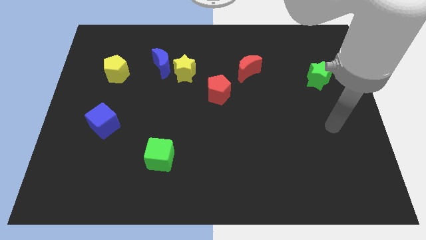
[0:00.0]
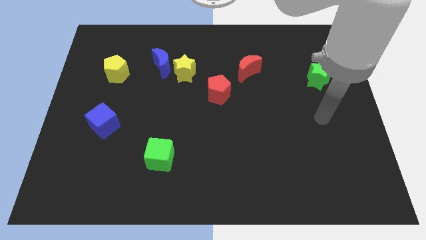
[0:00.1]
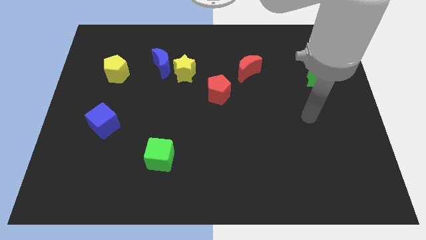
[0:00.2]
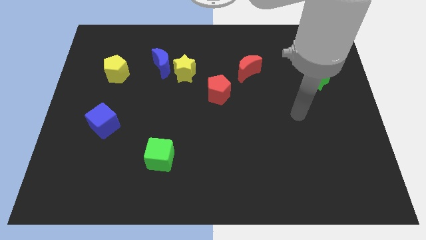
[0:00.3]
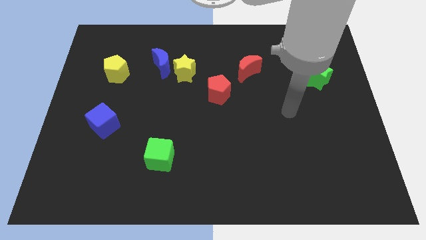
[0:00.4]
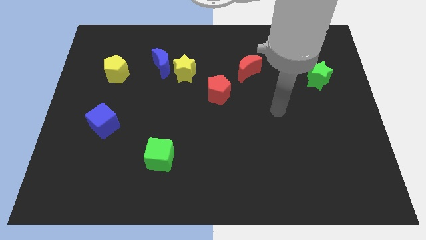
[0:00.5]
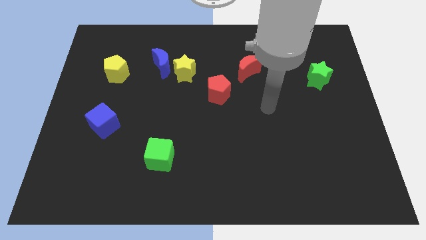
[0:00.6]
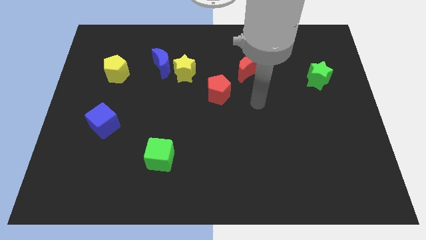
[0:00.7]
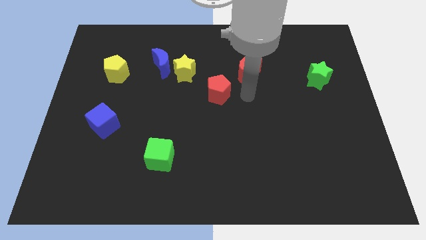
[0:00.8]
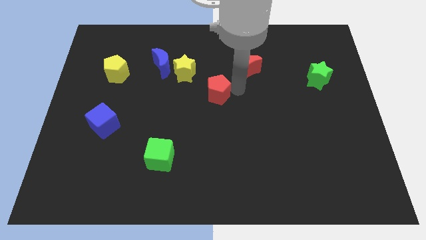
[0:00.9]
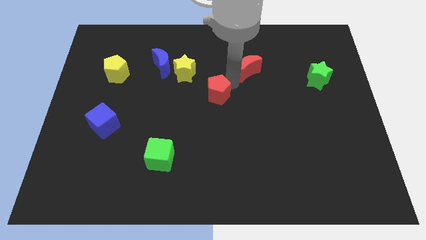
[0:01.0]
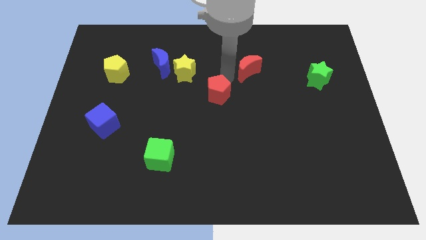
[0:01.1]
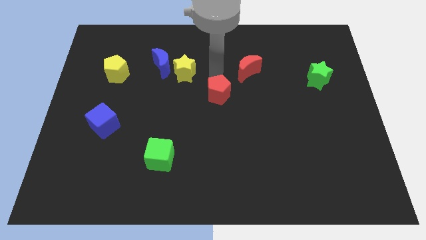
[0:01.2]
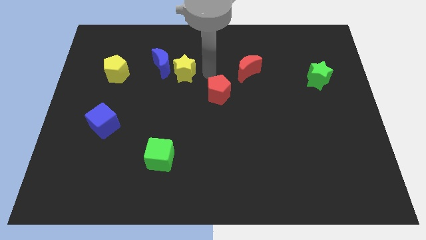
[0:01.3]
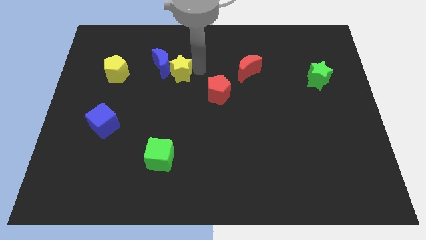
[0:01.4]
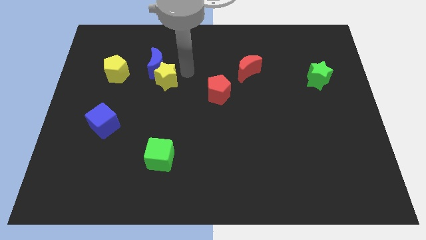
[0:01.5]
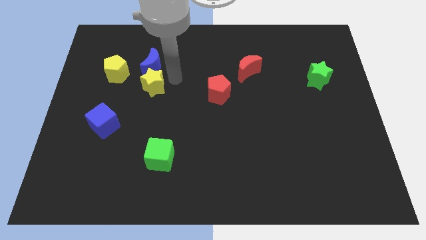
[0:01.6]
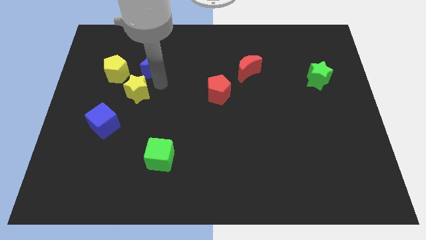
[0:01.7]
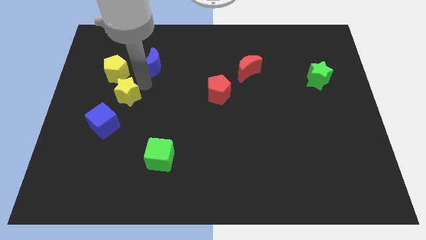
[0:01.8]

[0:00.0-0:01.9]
pull the blue moon apart from the yellow star

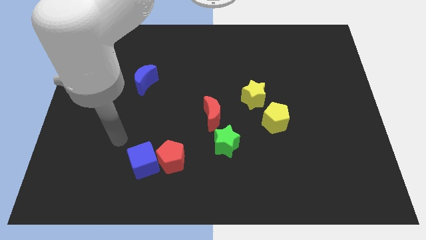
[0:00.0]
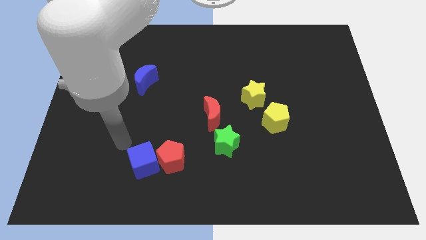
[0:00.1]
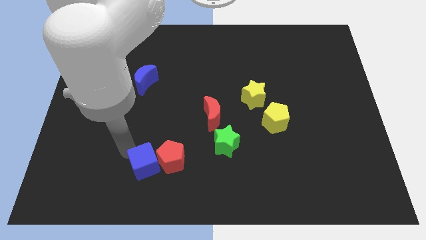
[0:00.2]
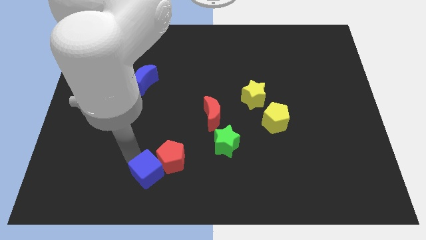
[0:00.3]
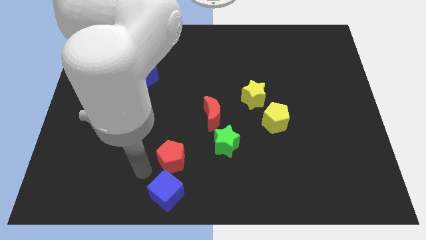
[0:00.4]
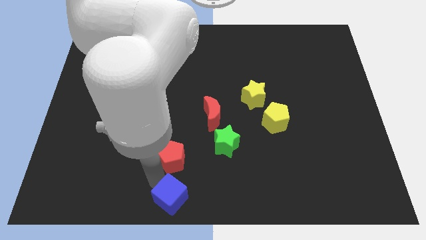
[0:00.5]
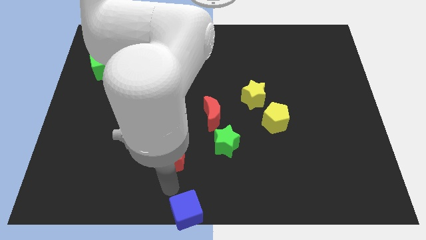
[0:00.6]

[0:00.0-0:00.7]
separate the red pentagon from the blue cube

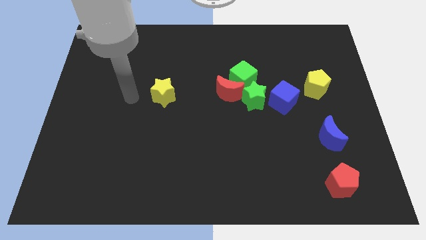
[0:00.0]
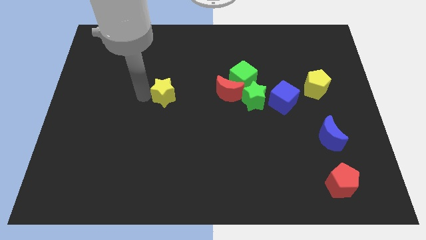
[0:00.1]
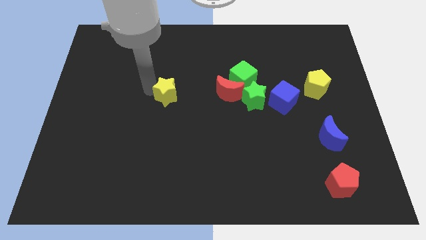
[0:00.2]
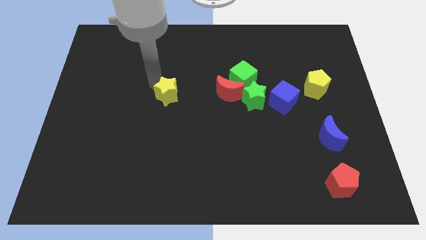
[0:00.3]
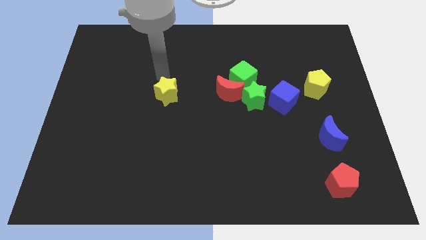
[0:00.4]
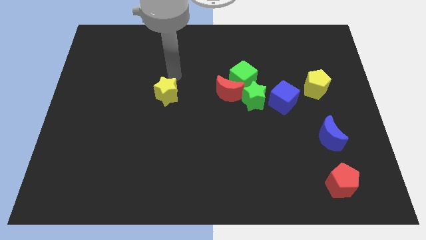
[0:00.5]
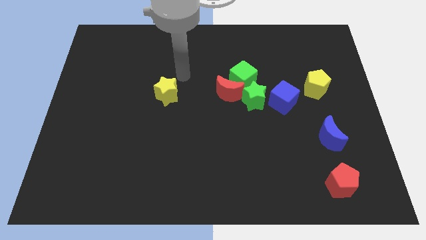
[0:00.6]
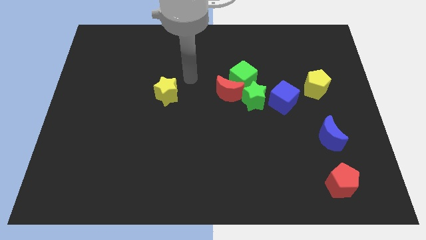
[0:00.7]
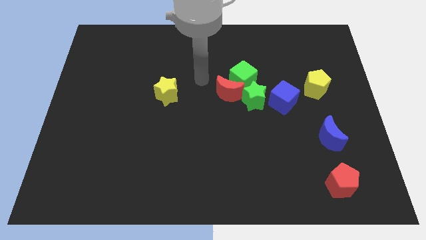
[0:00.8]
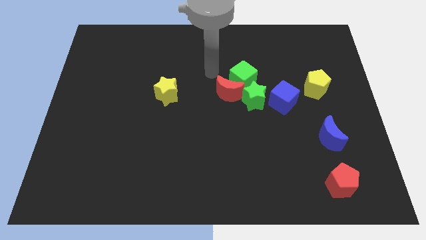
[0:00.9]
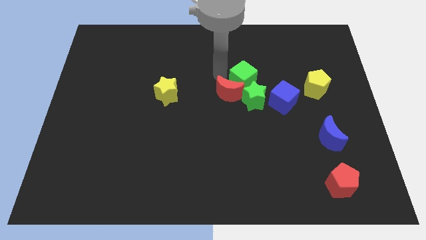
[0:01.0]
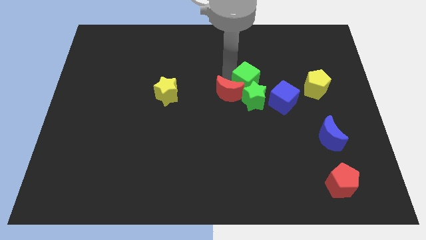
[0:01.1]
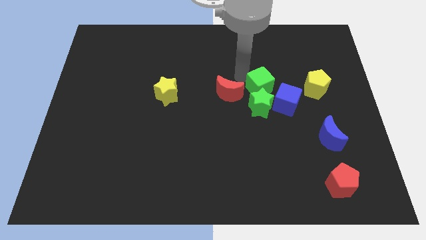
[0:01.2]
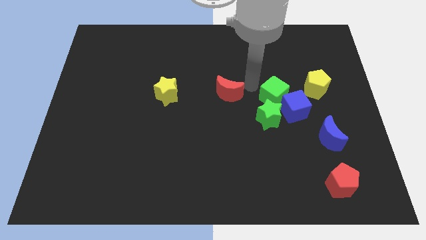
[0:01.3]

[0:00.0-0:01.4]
pull the red moon apart from the green cube and green star

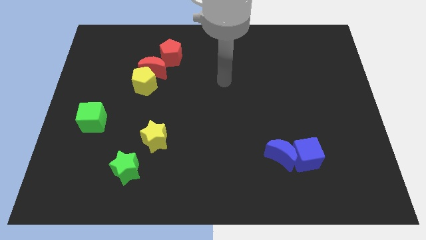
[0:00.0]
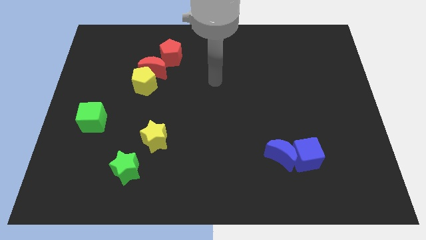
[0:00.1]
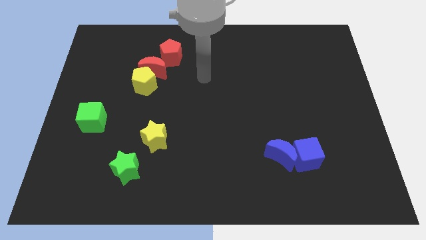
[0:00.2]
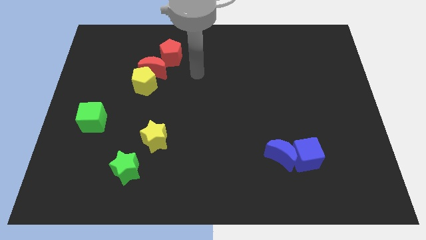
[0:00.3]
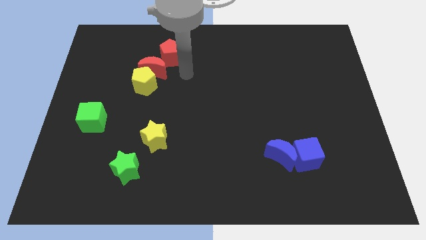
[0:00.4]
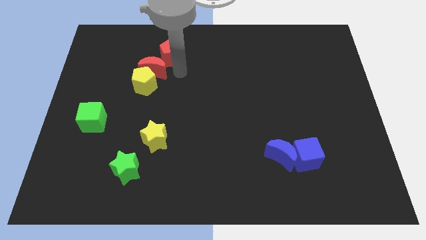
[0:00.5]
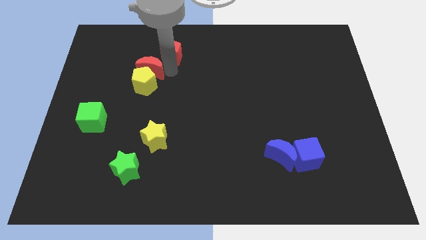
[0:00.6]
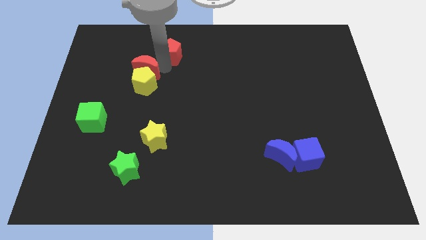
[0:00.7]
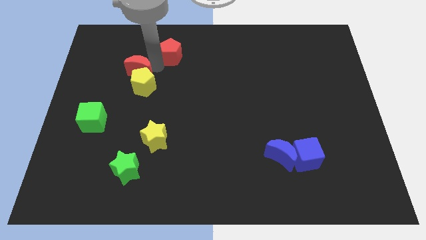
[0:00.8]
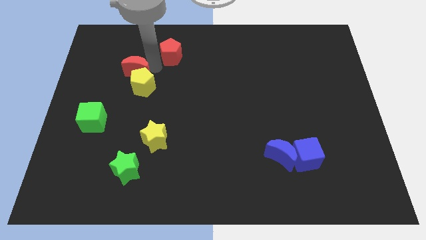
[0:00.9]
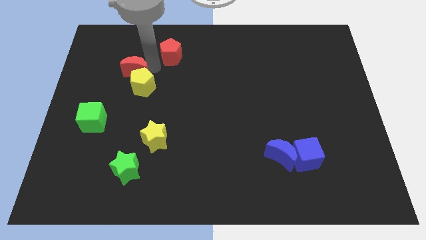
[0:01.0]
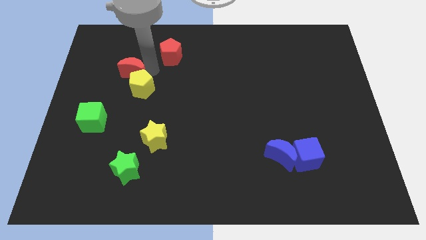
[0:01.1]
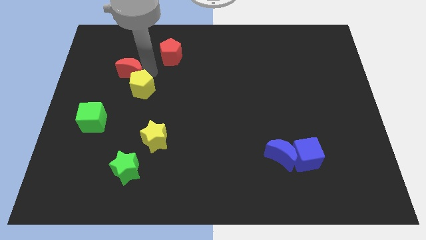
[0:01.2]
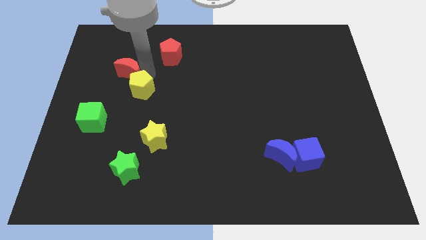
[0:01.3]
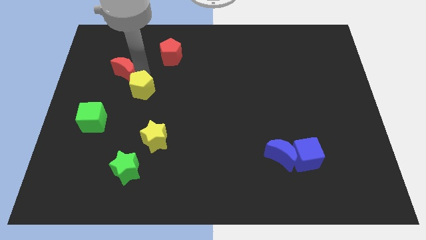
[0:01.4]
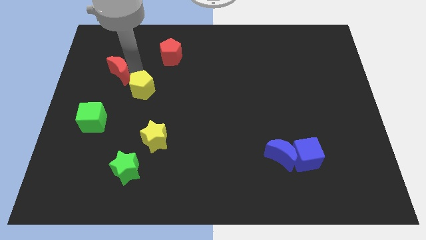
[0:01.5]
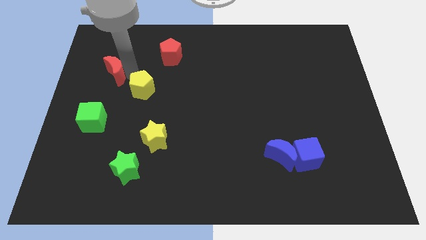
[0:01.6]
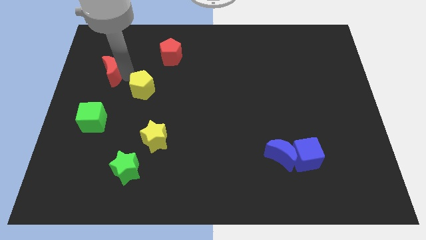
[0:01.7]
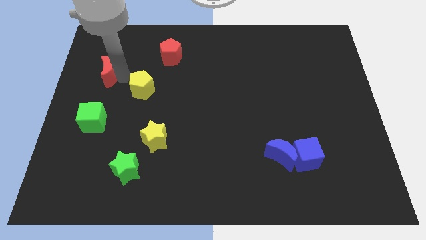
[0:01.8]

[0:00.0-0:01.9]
move the yellow pentagon away from the red moon

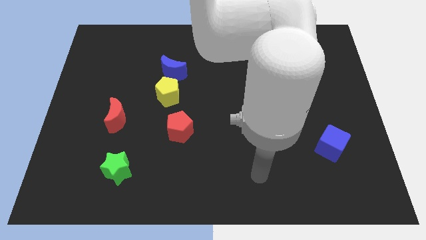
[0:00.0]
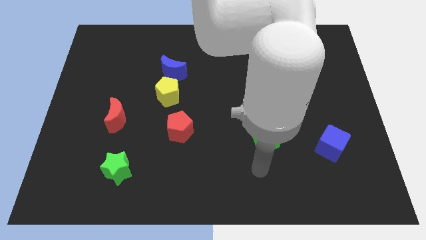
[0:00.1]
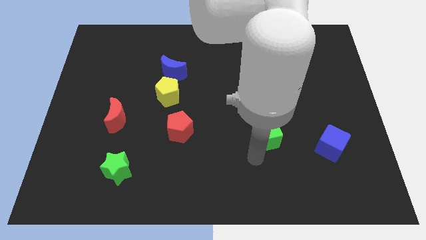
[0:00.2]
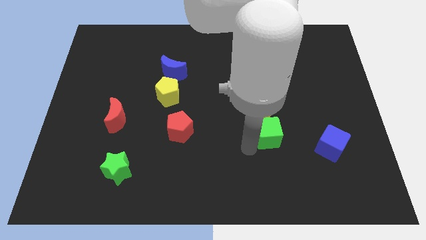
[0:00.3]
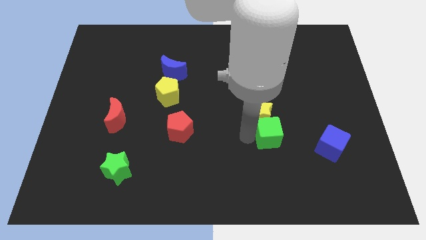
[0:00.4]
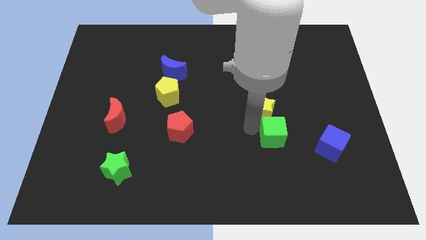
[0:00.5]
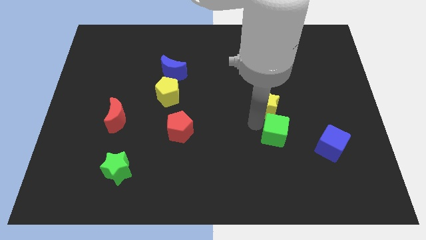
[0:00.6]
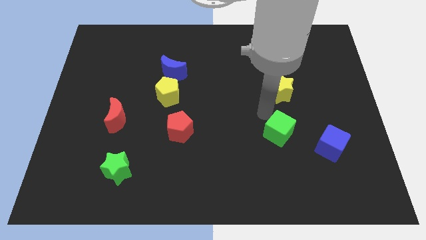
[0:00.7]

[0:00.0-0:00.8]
move the green cube away from the yellow star

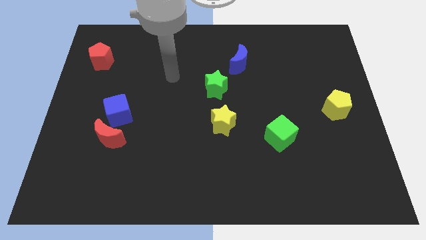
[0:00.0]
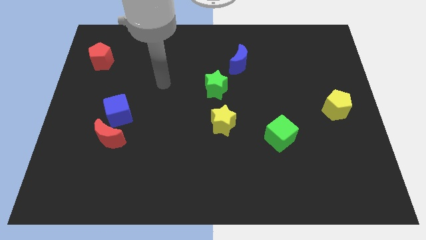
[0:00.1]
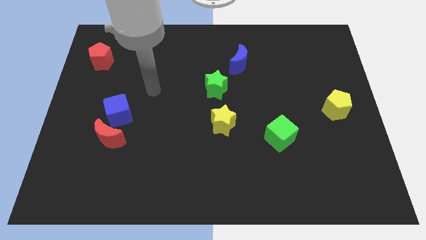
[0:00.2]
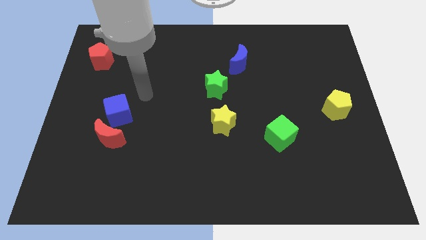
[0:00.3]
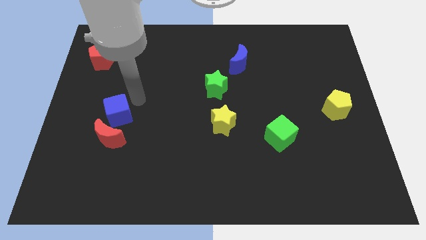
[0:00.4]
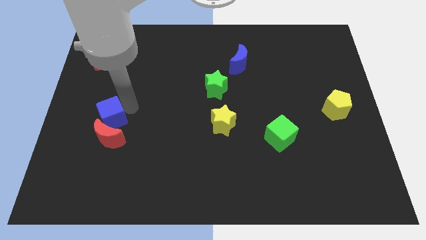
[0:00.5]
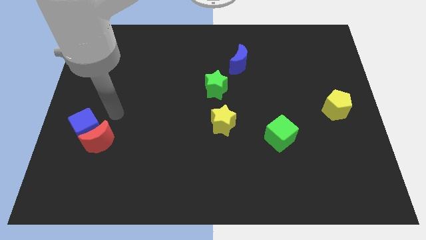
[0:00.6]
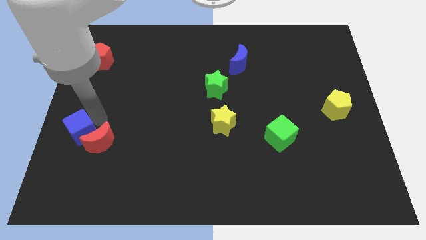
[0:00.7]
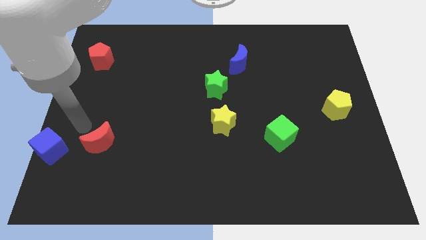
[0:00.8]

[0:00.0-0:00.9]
separate the red moon from the blue cube

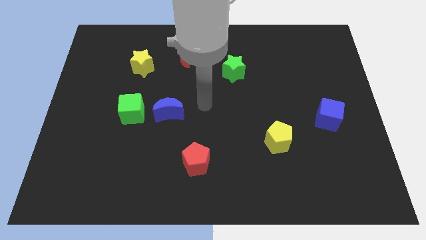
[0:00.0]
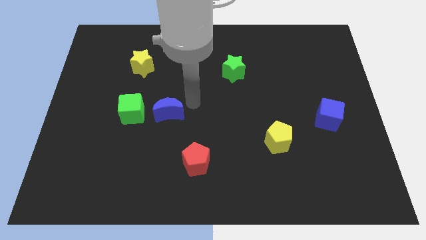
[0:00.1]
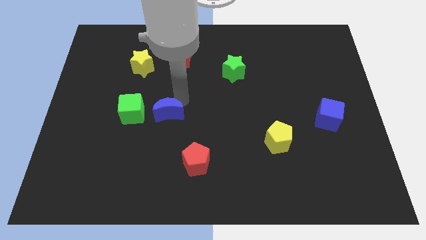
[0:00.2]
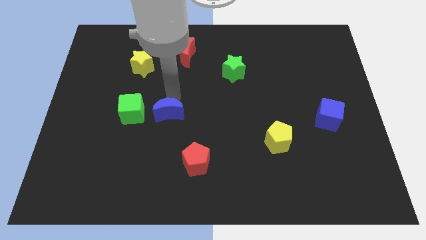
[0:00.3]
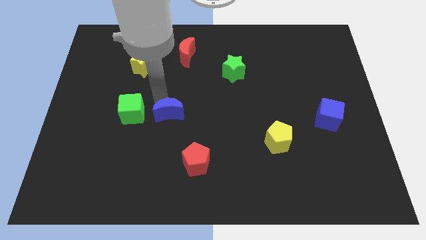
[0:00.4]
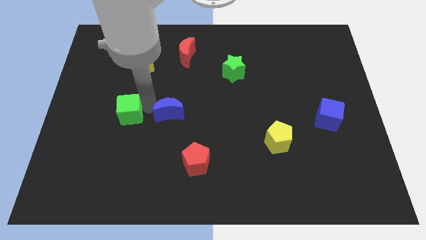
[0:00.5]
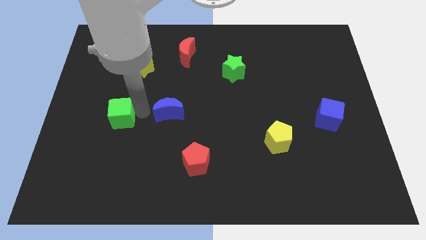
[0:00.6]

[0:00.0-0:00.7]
move the blue moon away from the green cube

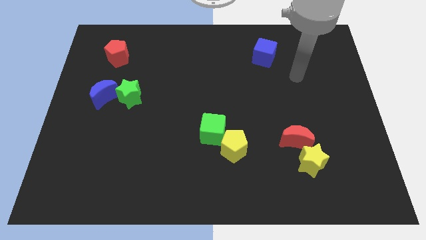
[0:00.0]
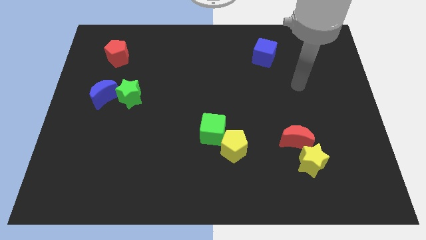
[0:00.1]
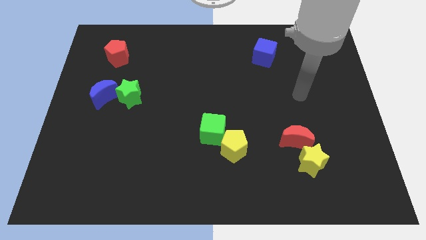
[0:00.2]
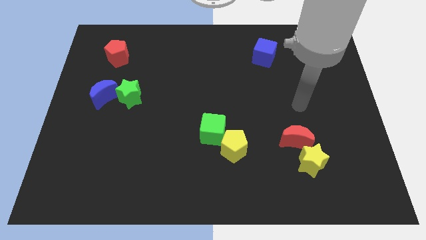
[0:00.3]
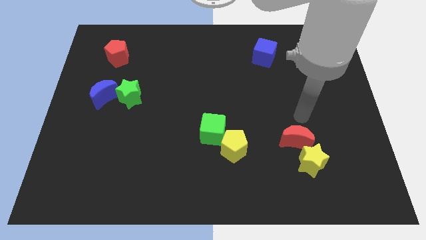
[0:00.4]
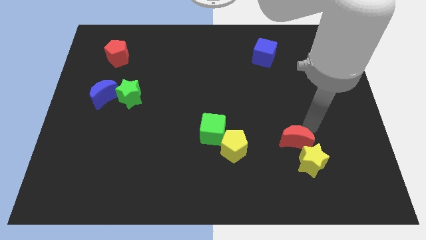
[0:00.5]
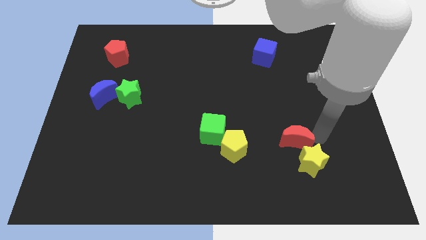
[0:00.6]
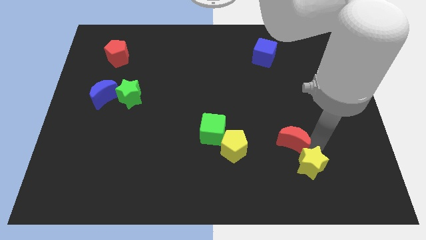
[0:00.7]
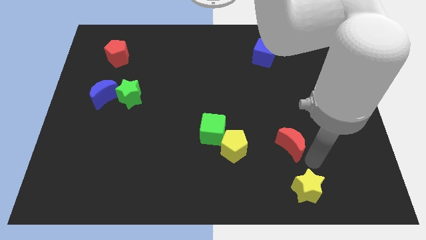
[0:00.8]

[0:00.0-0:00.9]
separate the red moon from the yellow star

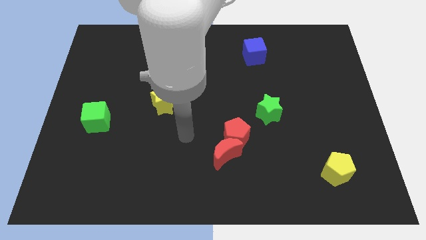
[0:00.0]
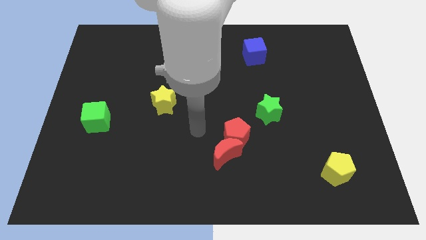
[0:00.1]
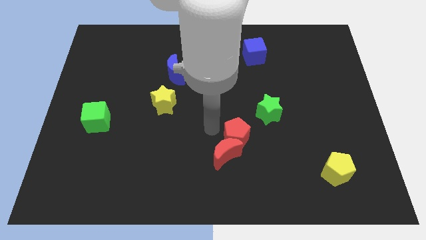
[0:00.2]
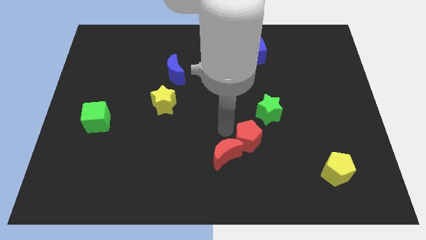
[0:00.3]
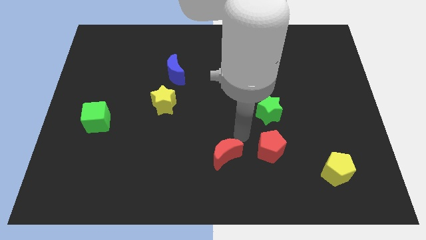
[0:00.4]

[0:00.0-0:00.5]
separate the red moon from the red pentagon
